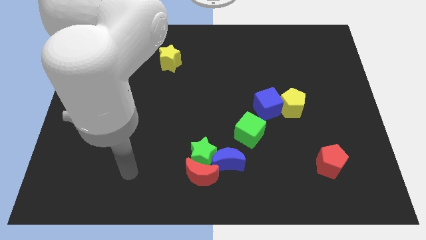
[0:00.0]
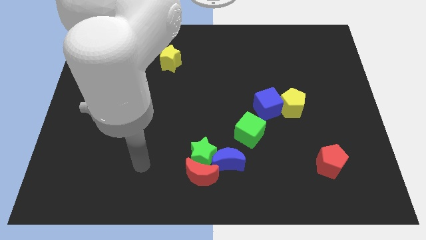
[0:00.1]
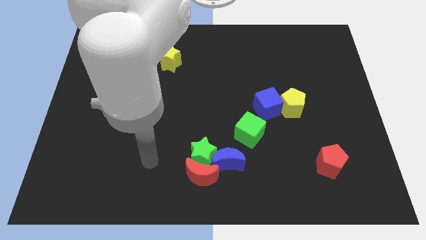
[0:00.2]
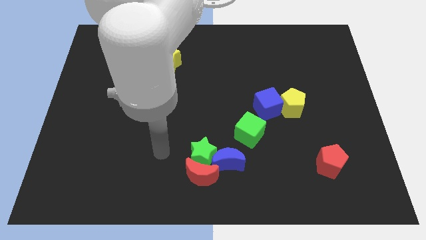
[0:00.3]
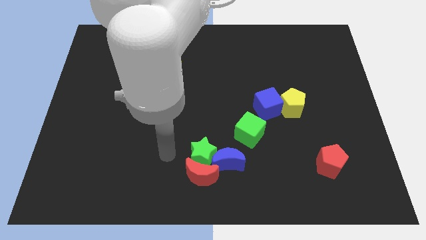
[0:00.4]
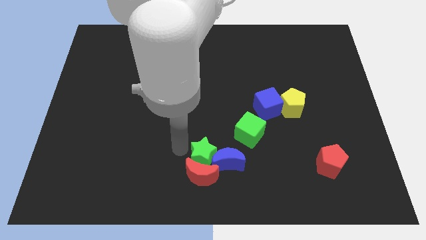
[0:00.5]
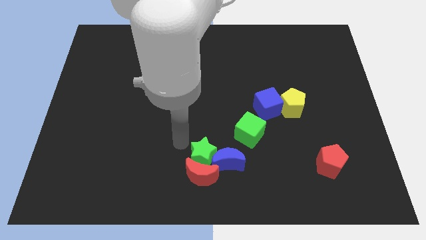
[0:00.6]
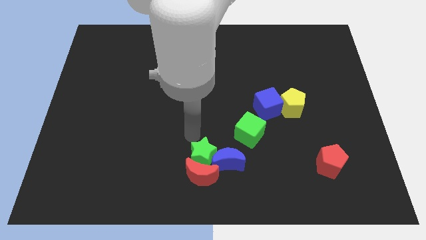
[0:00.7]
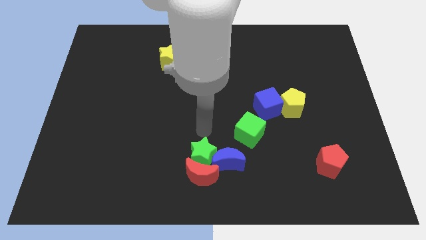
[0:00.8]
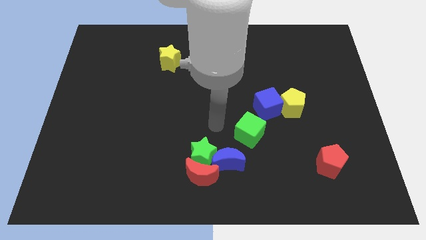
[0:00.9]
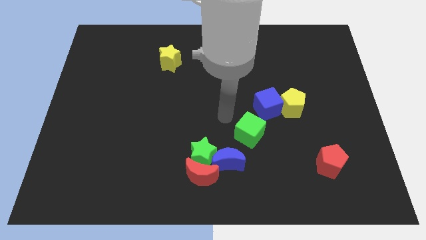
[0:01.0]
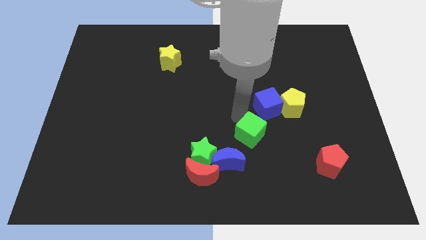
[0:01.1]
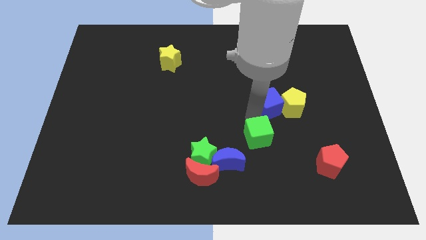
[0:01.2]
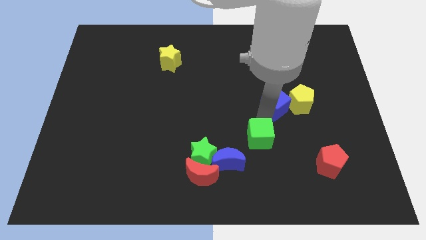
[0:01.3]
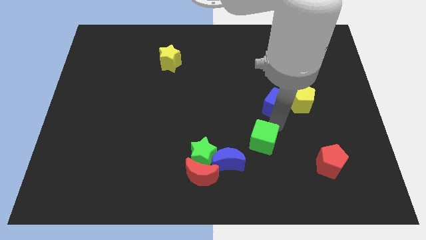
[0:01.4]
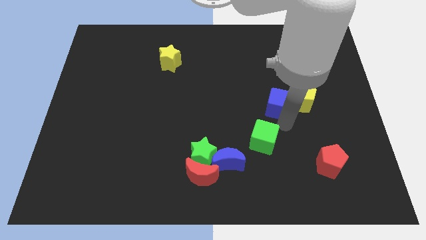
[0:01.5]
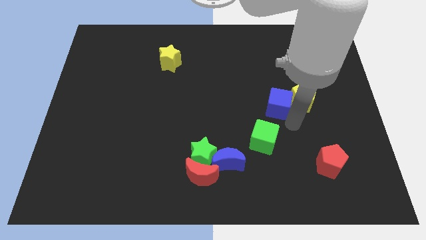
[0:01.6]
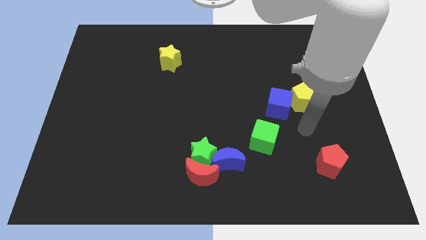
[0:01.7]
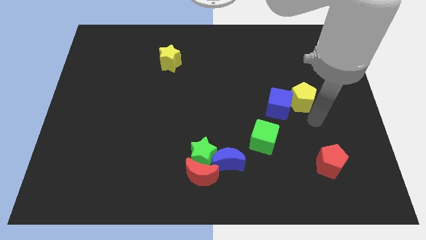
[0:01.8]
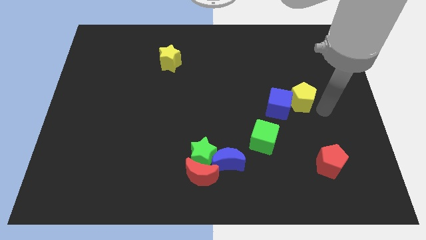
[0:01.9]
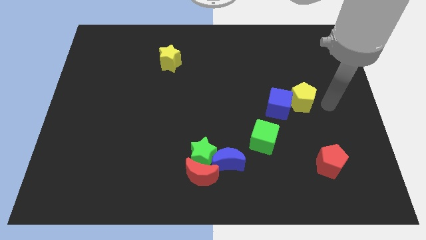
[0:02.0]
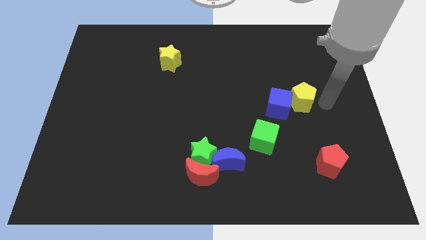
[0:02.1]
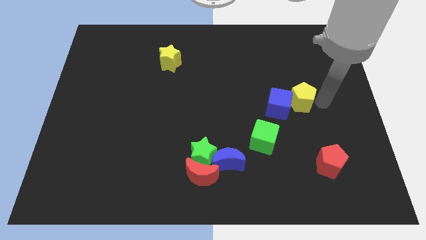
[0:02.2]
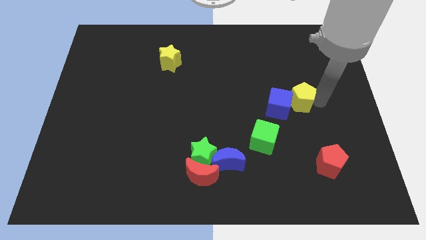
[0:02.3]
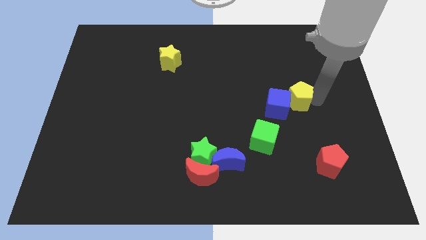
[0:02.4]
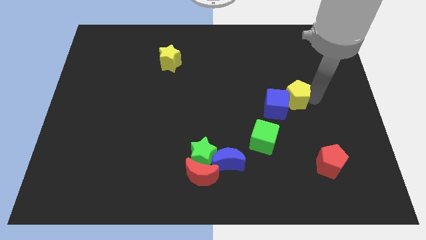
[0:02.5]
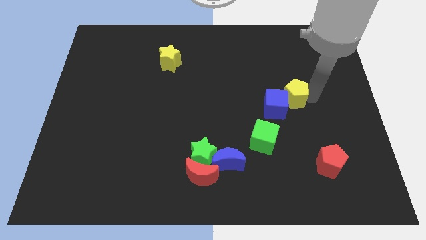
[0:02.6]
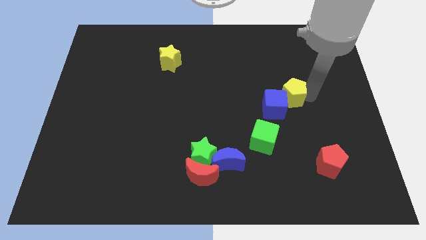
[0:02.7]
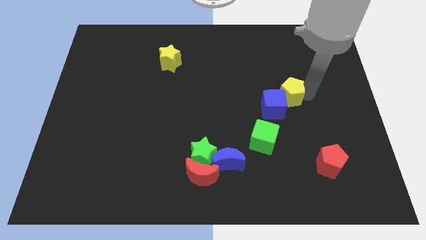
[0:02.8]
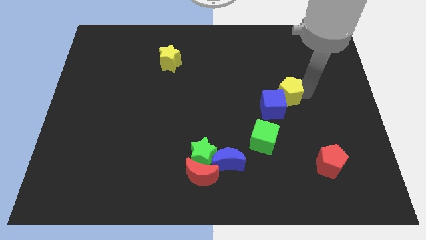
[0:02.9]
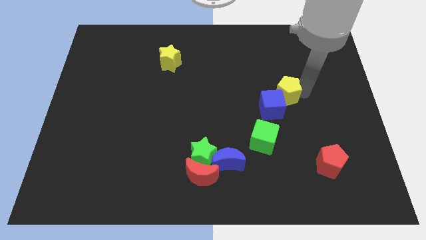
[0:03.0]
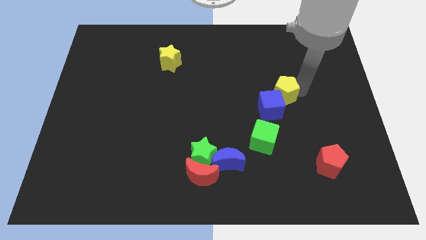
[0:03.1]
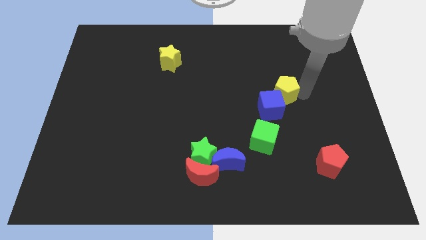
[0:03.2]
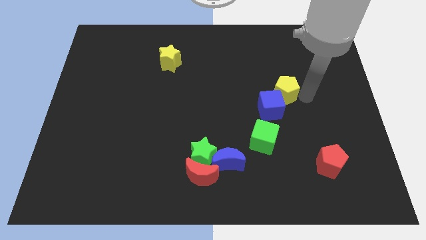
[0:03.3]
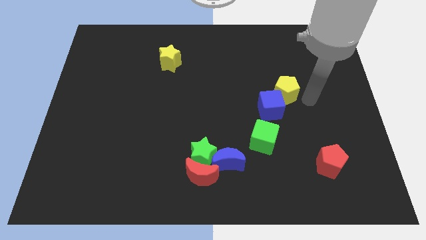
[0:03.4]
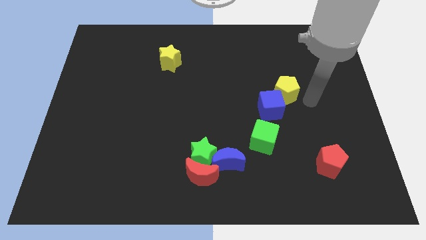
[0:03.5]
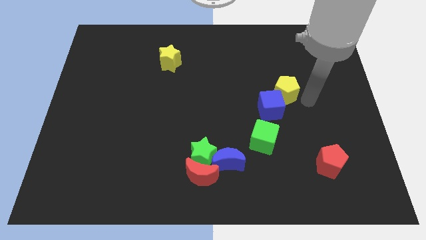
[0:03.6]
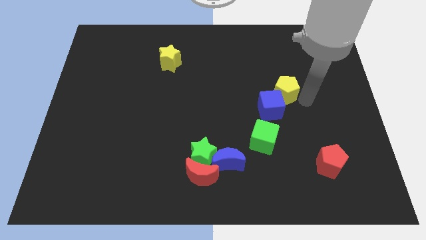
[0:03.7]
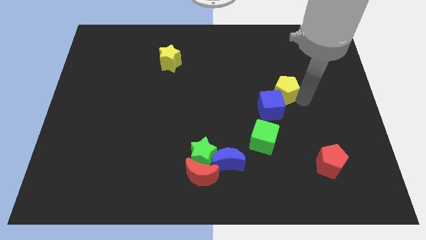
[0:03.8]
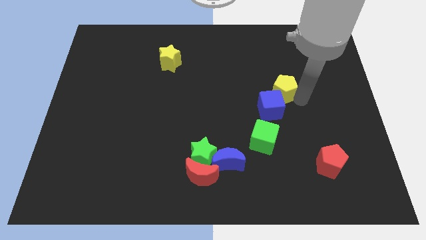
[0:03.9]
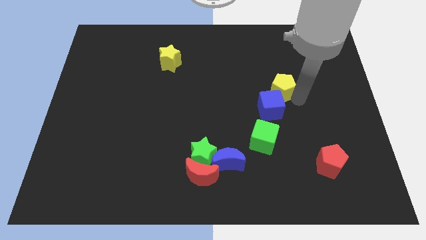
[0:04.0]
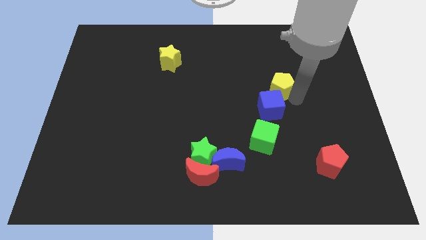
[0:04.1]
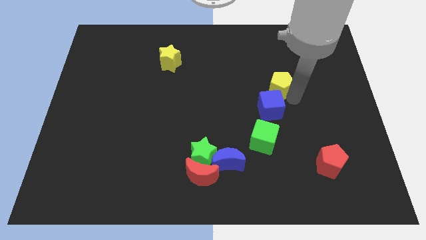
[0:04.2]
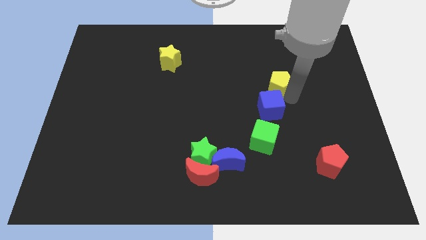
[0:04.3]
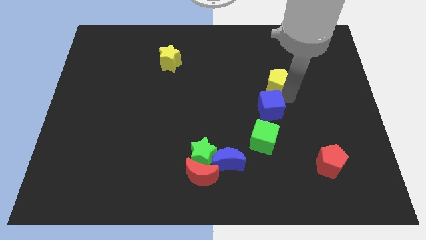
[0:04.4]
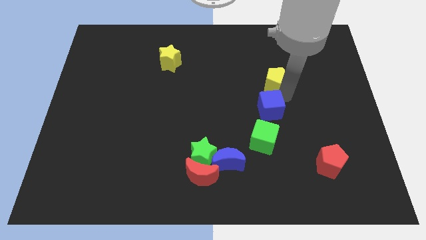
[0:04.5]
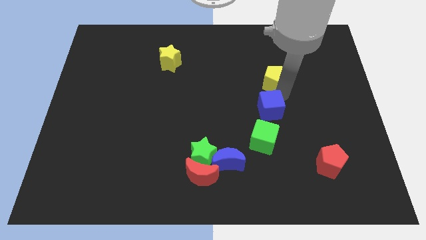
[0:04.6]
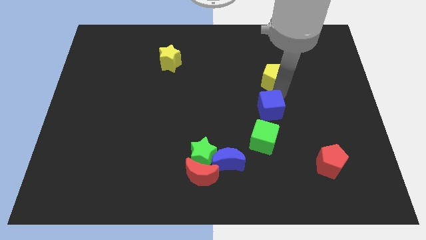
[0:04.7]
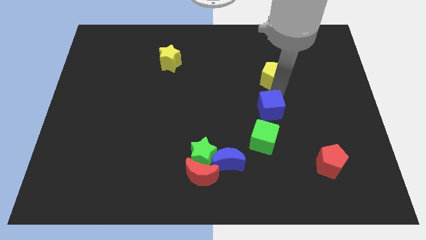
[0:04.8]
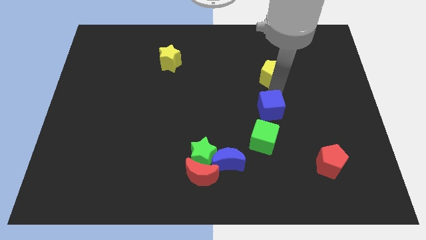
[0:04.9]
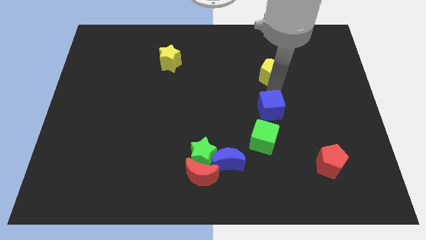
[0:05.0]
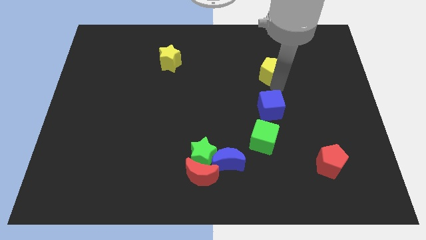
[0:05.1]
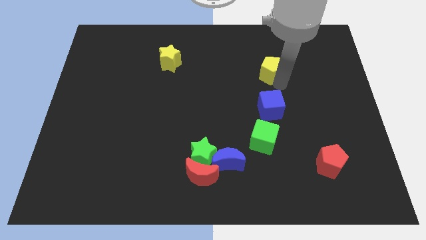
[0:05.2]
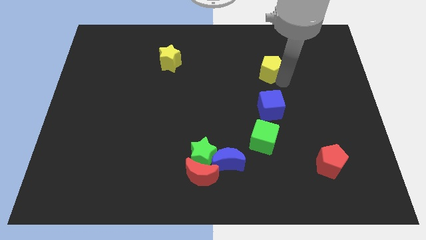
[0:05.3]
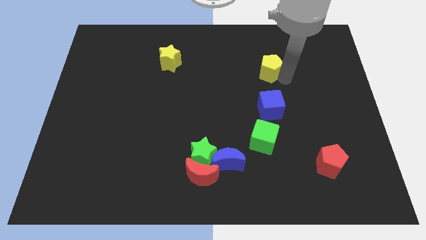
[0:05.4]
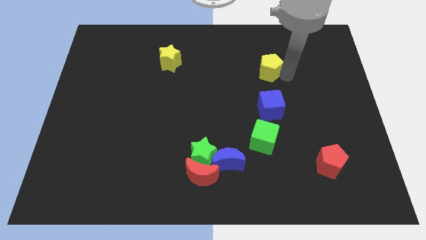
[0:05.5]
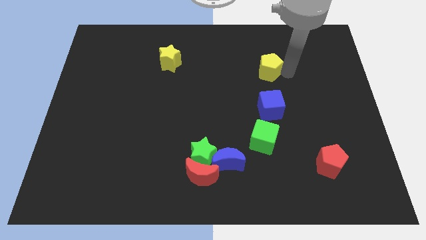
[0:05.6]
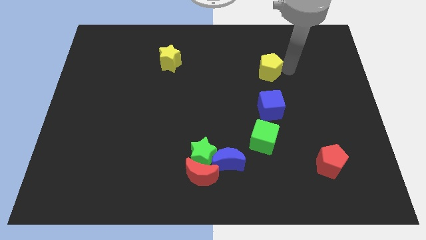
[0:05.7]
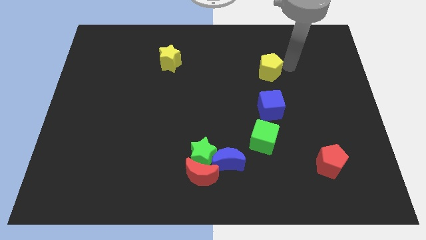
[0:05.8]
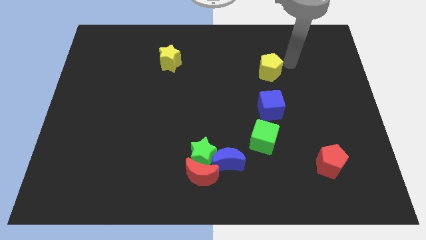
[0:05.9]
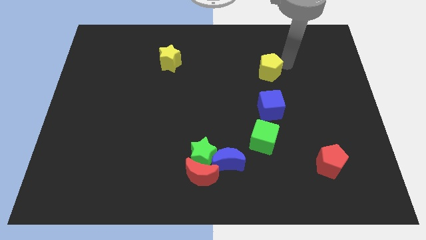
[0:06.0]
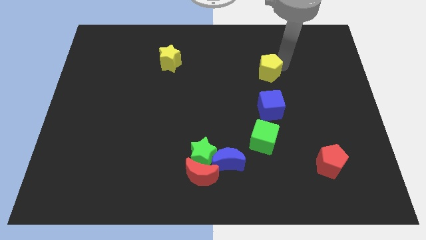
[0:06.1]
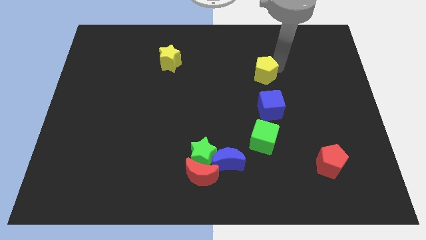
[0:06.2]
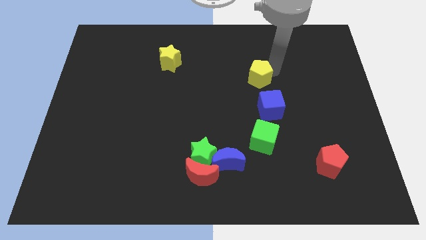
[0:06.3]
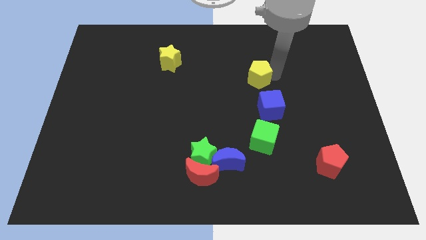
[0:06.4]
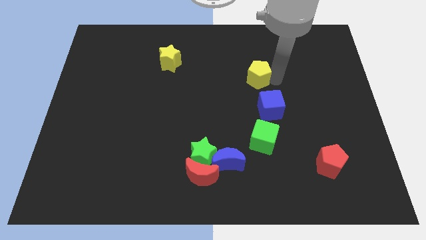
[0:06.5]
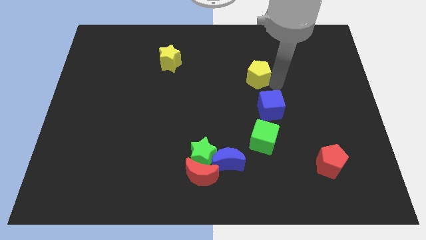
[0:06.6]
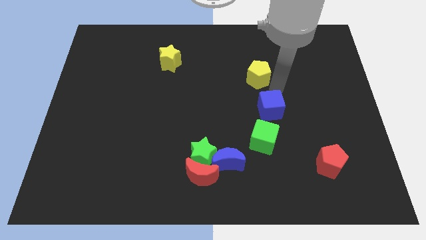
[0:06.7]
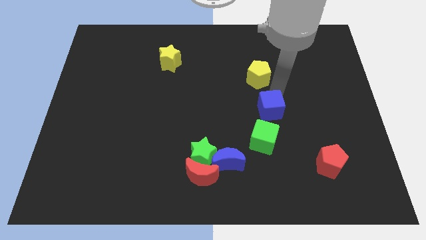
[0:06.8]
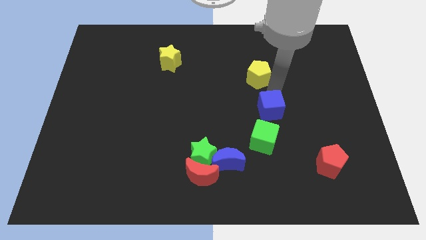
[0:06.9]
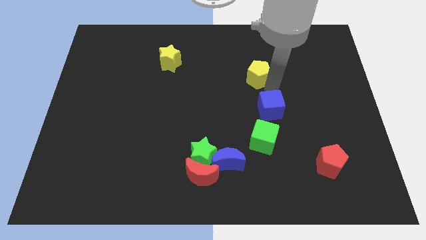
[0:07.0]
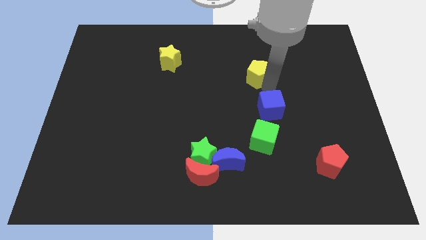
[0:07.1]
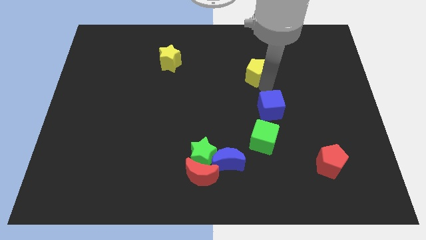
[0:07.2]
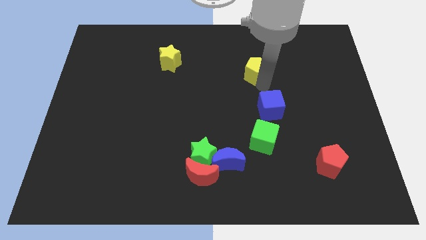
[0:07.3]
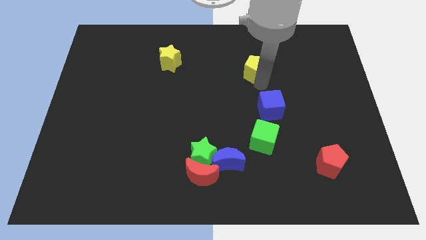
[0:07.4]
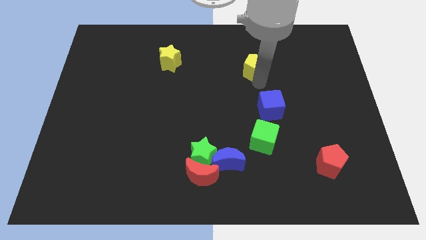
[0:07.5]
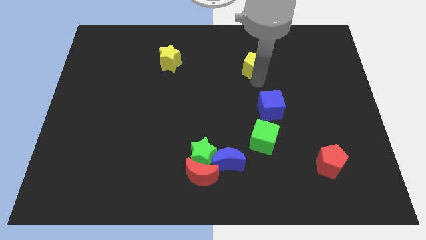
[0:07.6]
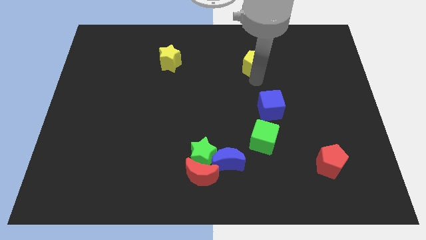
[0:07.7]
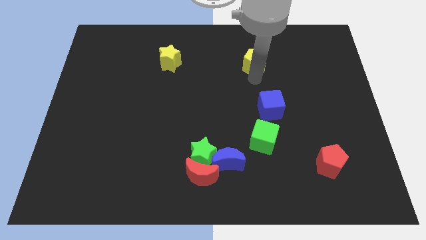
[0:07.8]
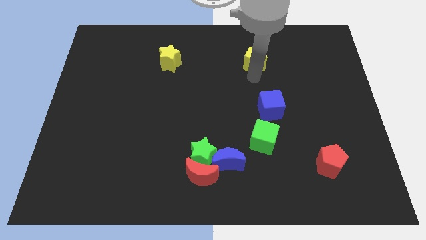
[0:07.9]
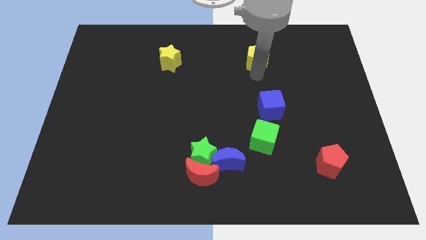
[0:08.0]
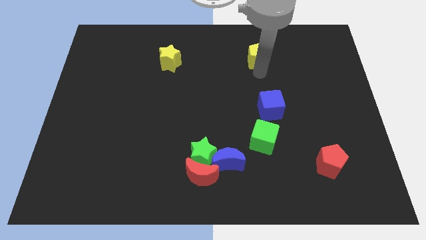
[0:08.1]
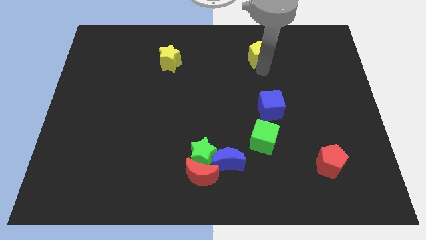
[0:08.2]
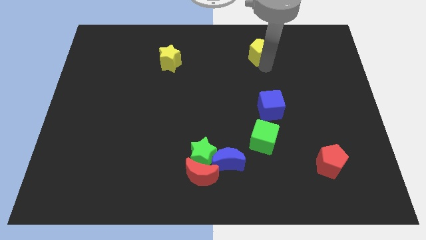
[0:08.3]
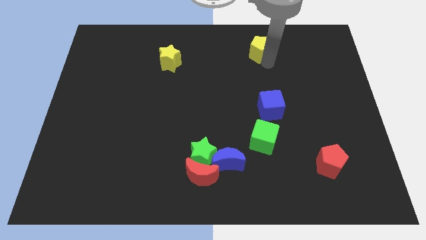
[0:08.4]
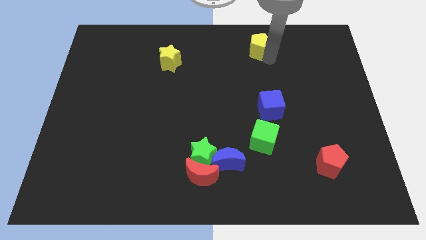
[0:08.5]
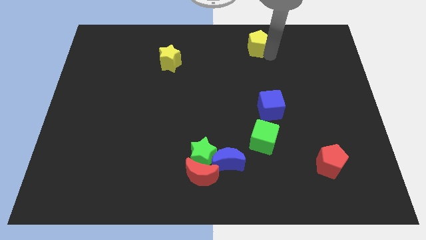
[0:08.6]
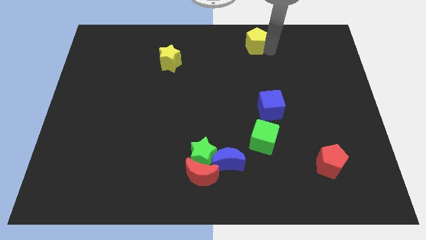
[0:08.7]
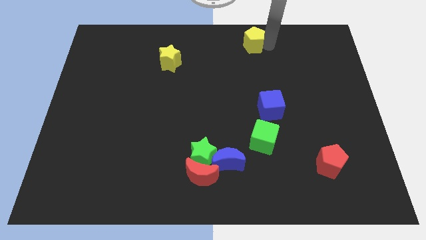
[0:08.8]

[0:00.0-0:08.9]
push the yellow pentagon to the top
